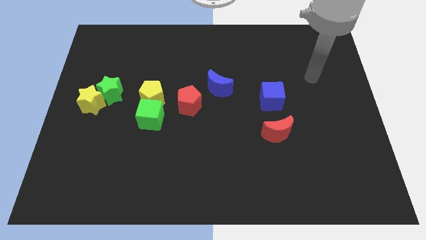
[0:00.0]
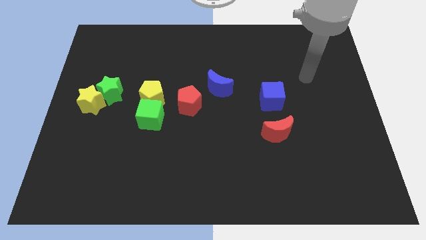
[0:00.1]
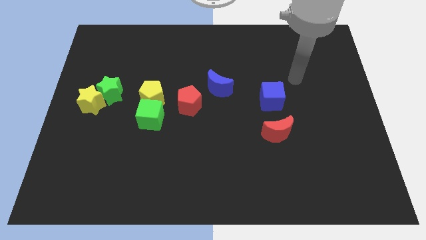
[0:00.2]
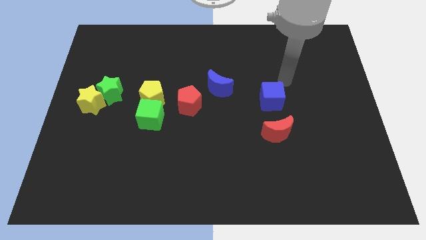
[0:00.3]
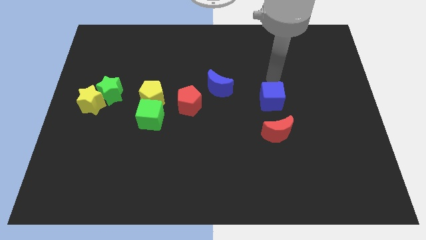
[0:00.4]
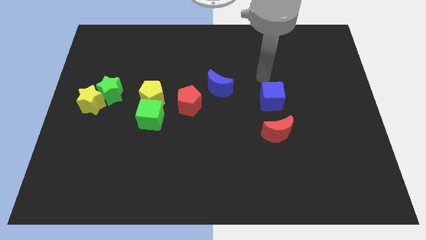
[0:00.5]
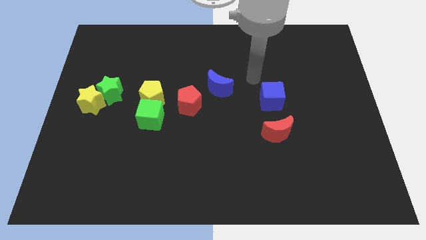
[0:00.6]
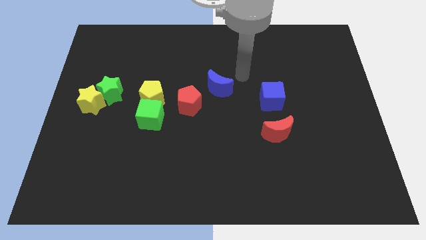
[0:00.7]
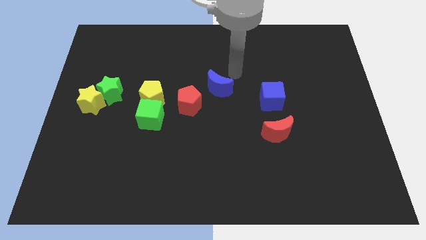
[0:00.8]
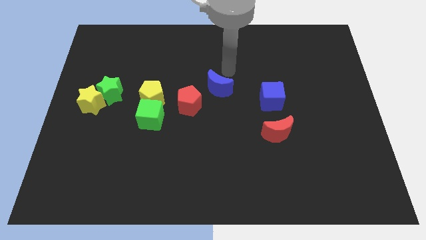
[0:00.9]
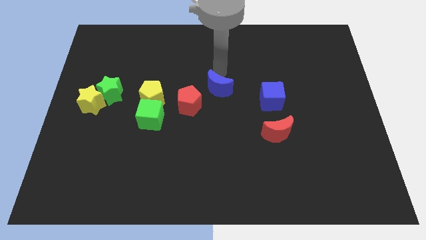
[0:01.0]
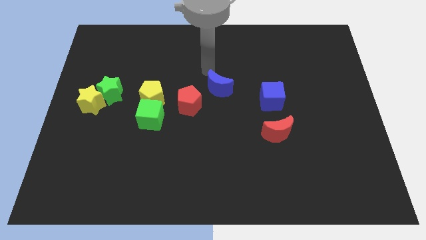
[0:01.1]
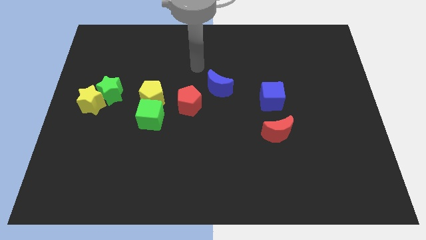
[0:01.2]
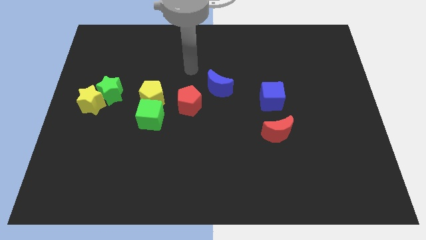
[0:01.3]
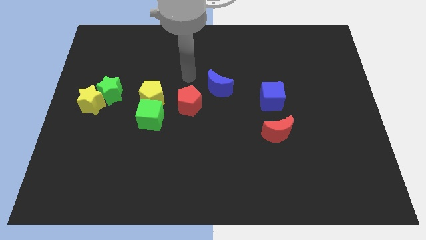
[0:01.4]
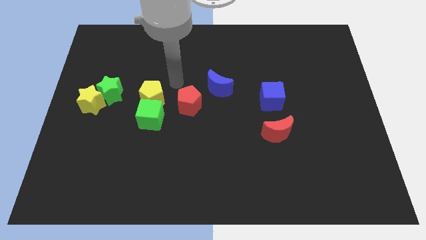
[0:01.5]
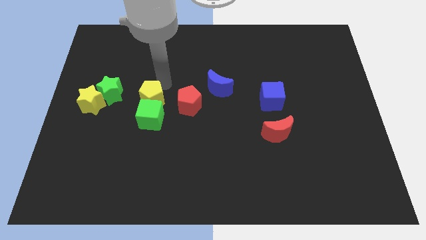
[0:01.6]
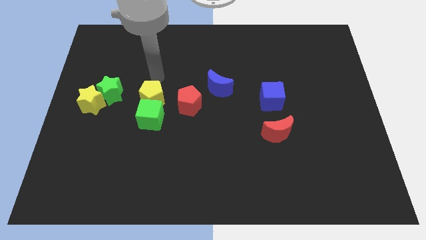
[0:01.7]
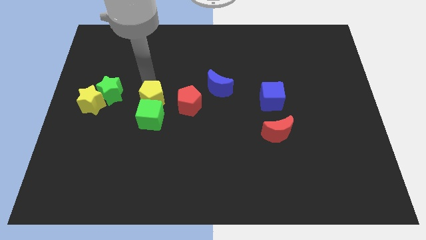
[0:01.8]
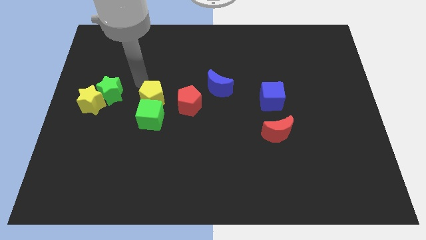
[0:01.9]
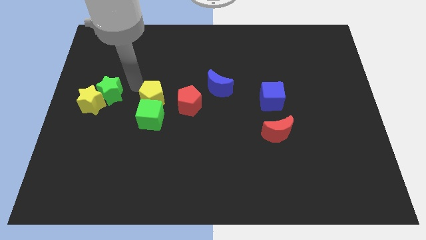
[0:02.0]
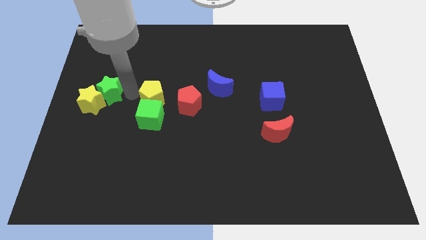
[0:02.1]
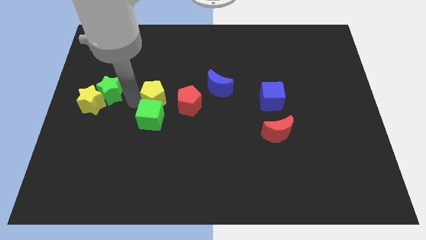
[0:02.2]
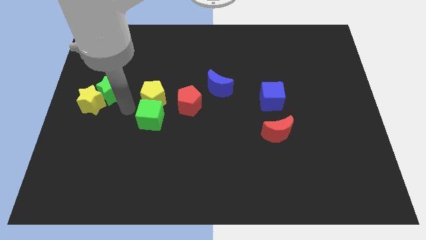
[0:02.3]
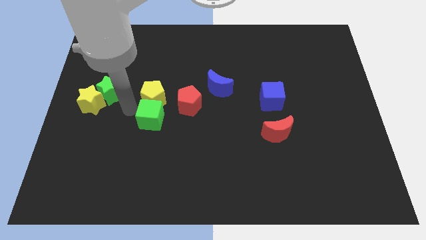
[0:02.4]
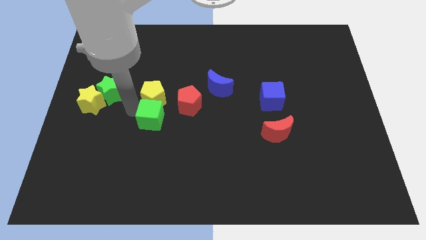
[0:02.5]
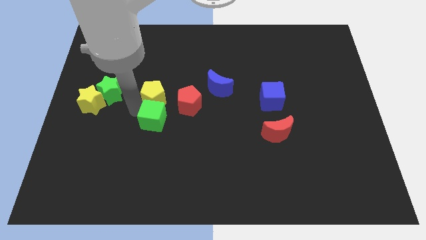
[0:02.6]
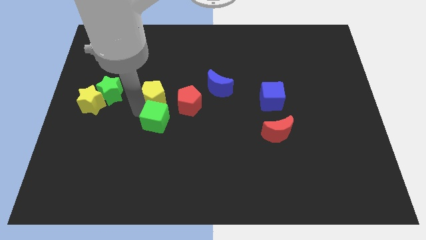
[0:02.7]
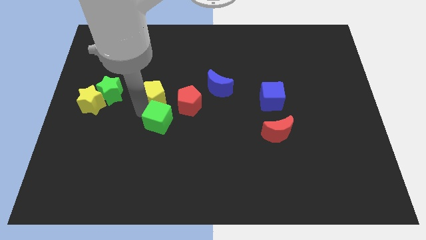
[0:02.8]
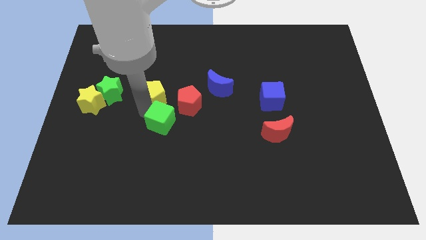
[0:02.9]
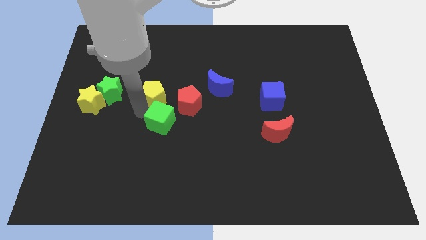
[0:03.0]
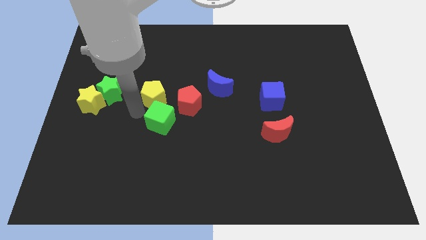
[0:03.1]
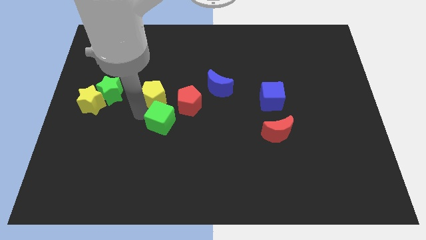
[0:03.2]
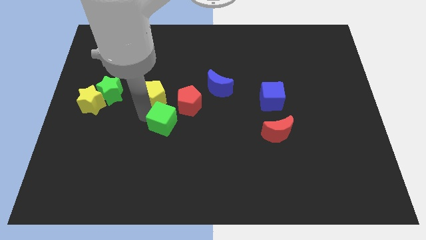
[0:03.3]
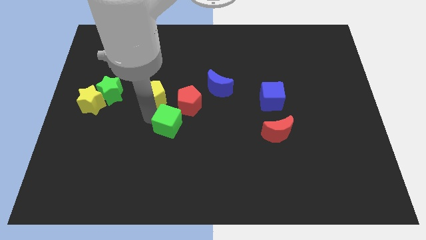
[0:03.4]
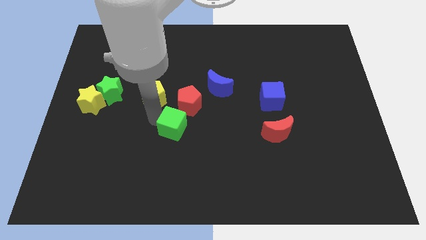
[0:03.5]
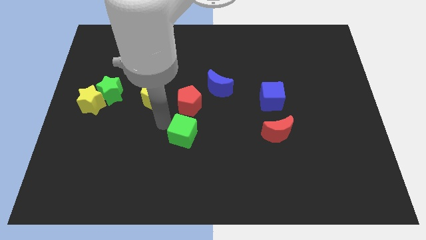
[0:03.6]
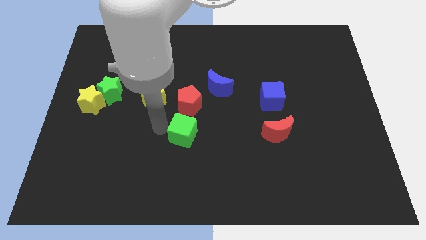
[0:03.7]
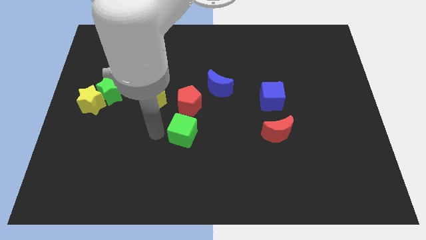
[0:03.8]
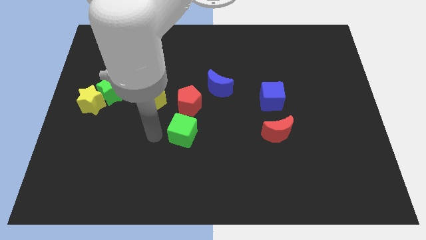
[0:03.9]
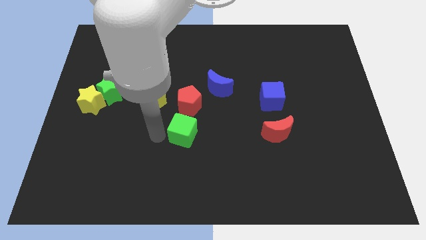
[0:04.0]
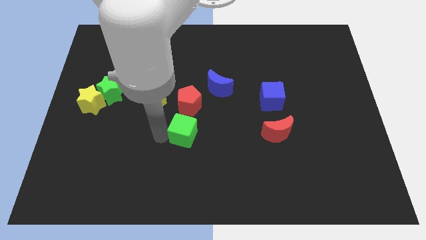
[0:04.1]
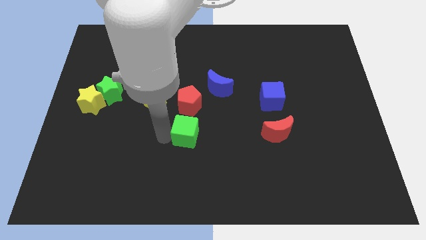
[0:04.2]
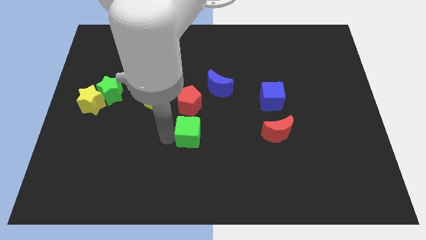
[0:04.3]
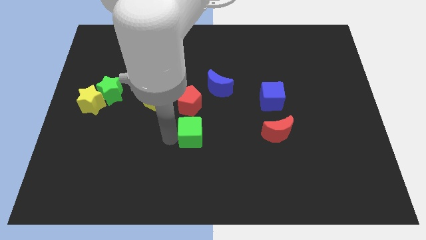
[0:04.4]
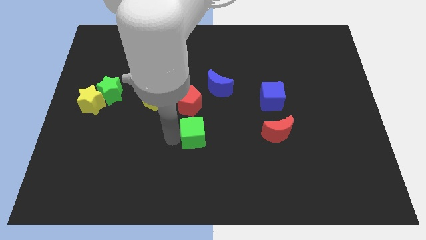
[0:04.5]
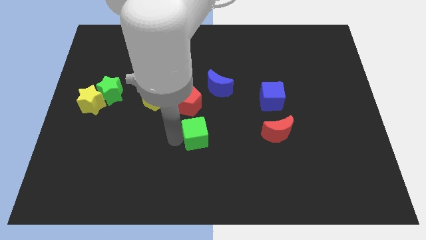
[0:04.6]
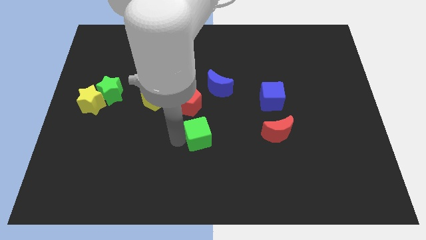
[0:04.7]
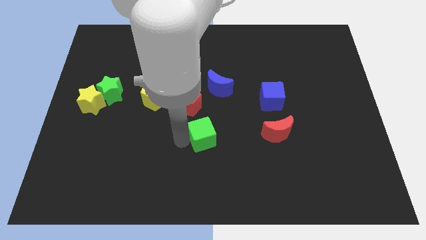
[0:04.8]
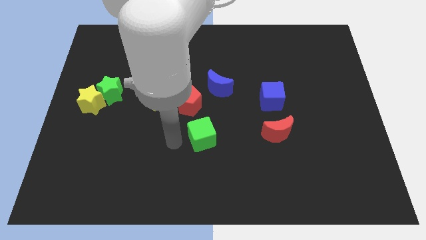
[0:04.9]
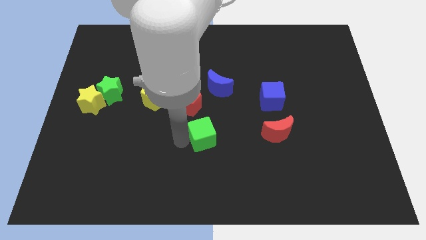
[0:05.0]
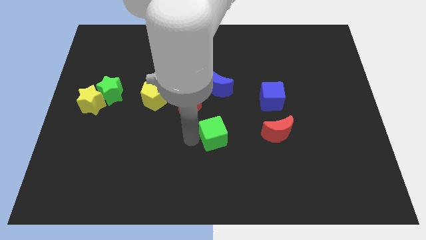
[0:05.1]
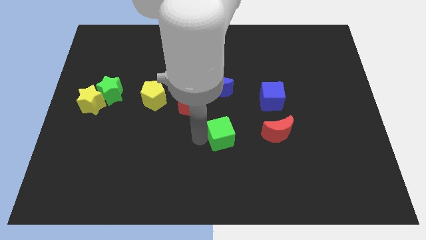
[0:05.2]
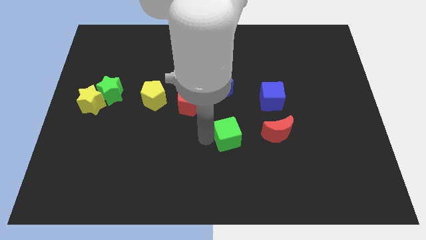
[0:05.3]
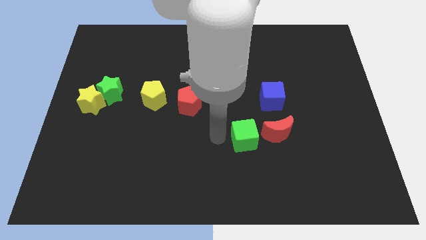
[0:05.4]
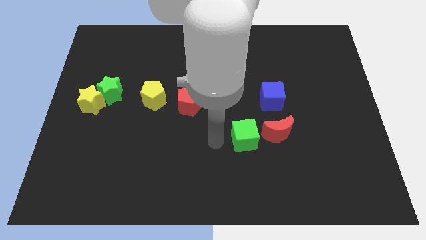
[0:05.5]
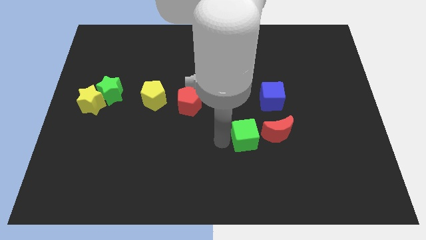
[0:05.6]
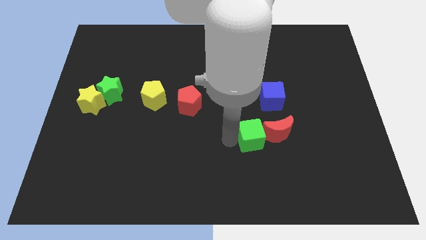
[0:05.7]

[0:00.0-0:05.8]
move the green cube next to the red moon
